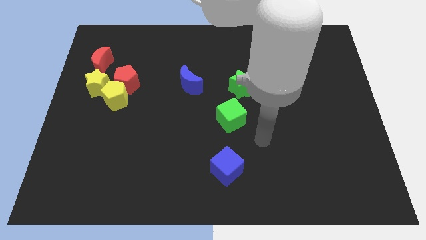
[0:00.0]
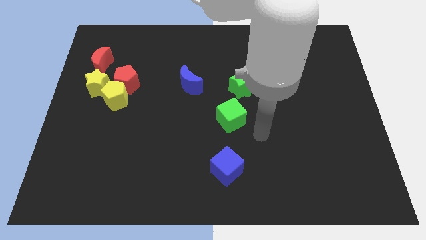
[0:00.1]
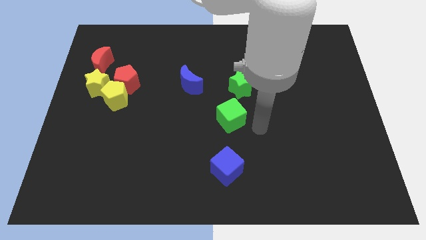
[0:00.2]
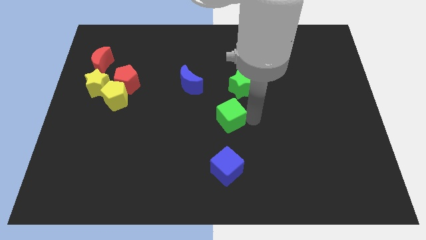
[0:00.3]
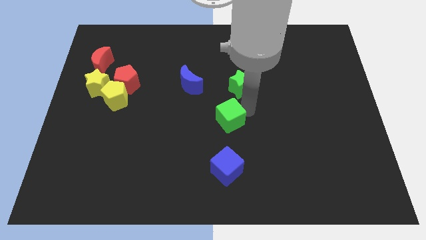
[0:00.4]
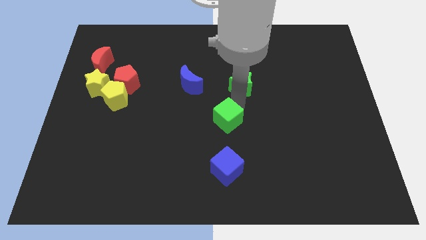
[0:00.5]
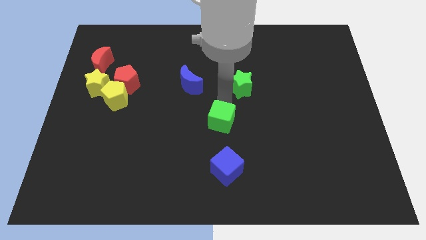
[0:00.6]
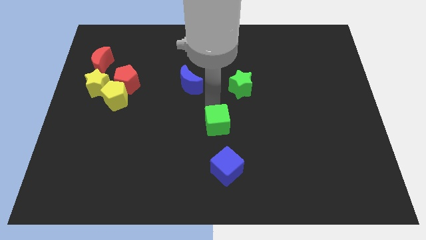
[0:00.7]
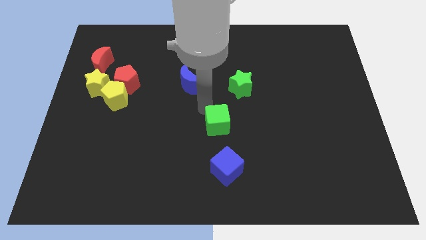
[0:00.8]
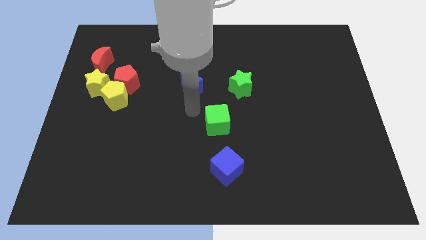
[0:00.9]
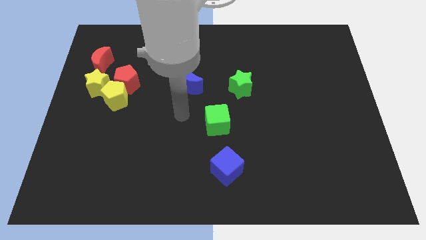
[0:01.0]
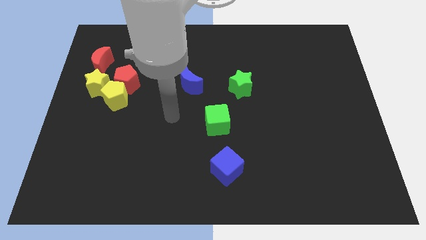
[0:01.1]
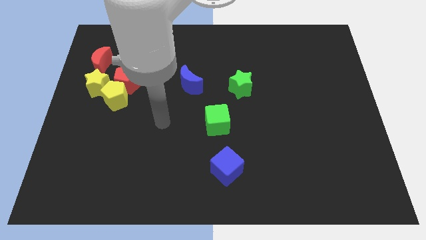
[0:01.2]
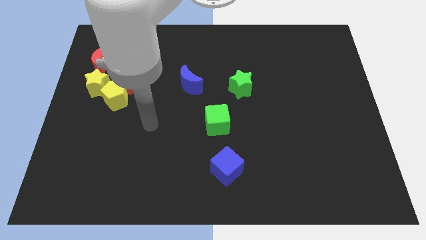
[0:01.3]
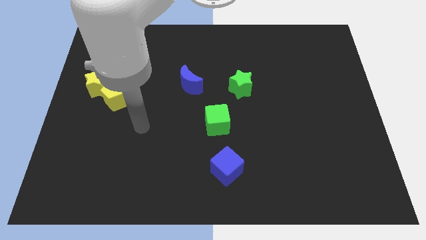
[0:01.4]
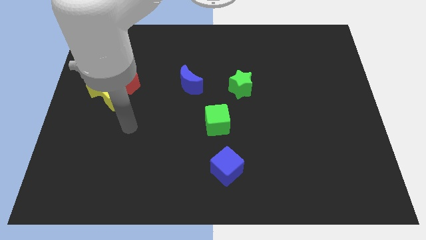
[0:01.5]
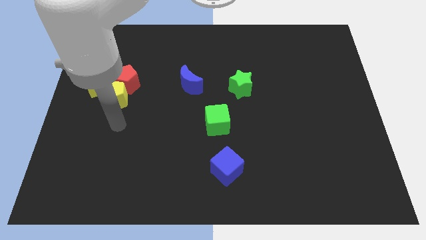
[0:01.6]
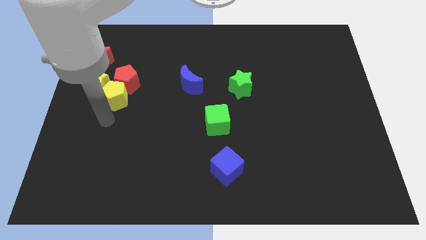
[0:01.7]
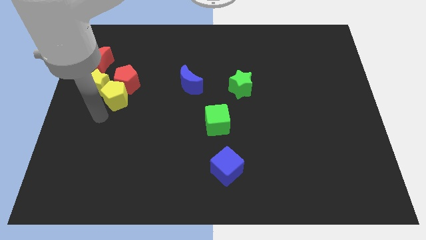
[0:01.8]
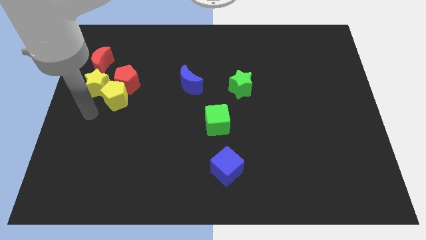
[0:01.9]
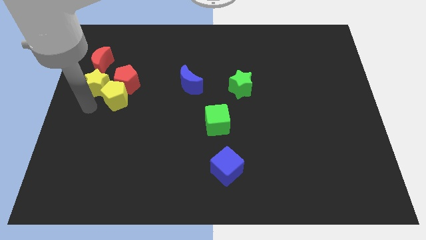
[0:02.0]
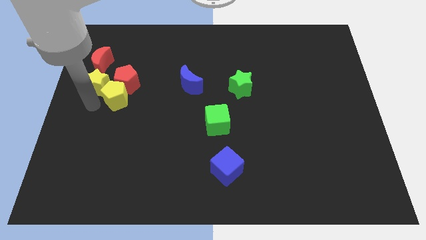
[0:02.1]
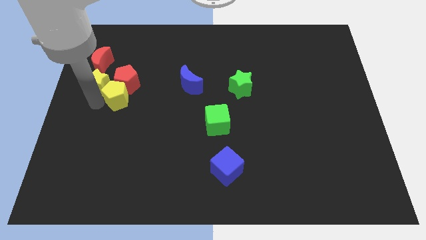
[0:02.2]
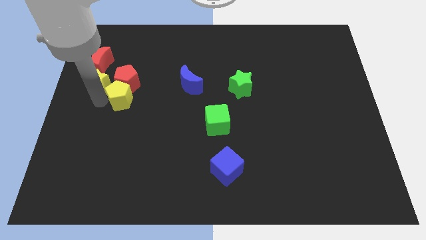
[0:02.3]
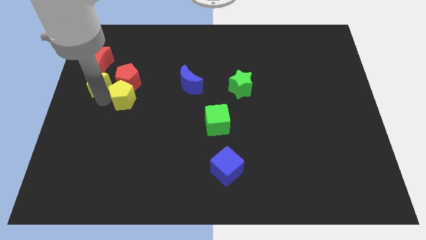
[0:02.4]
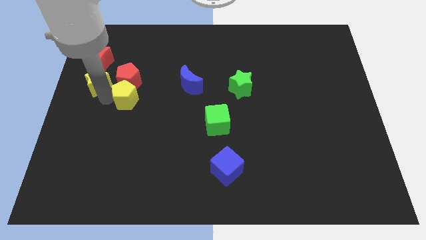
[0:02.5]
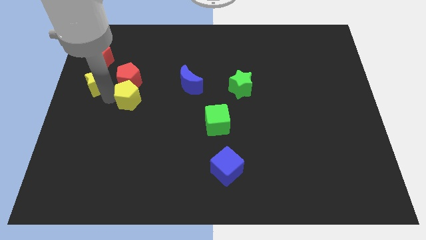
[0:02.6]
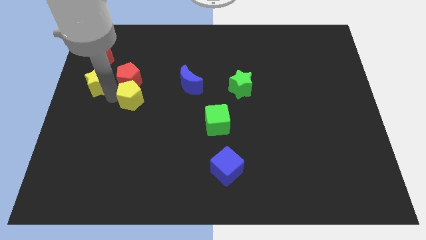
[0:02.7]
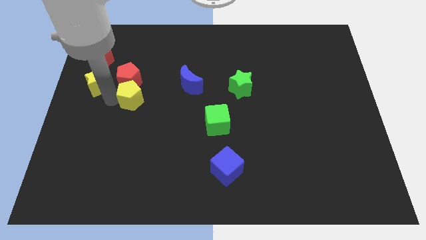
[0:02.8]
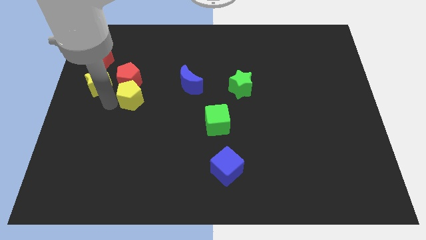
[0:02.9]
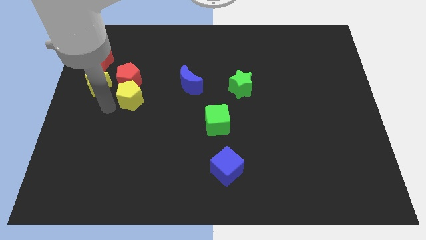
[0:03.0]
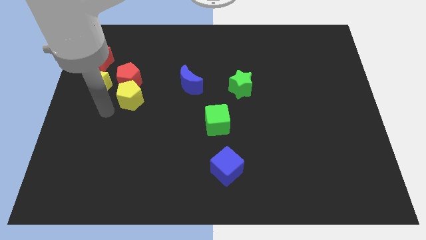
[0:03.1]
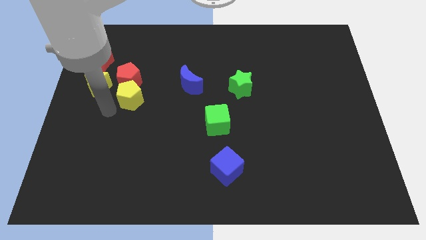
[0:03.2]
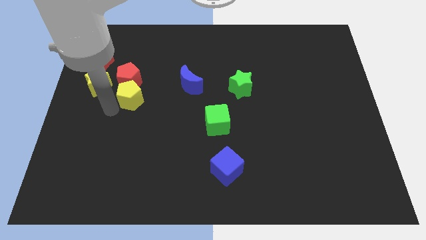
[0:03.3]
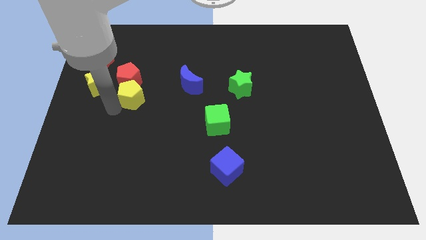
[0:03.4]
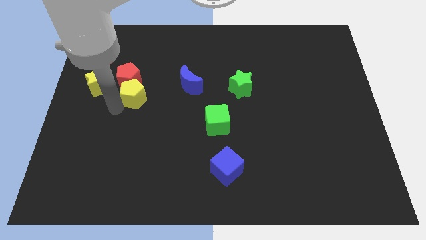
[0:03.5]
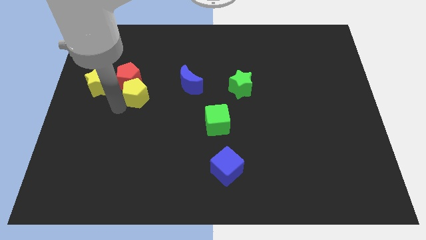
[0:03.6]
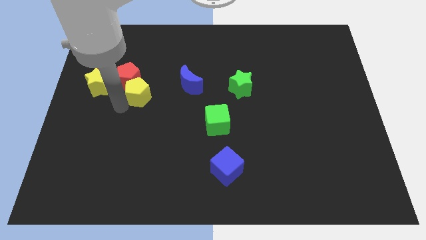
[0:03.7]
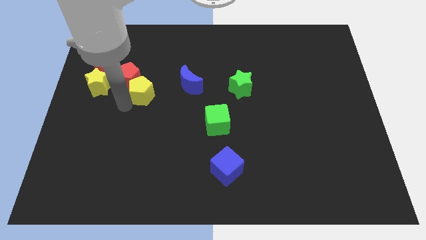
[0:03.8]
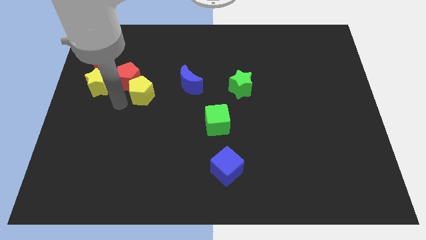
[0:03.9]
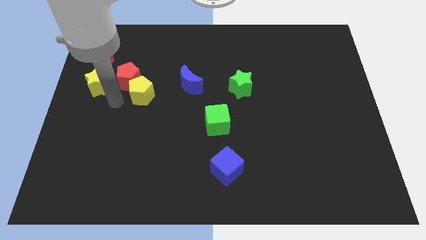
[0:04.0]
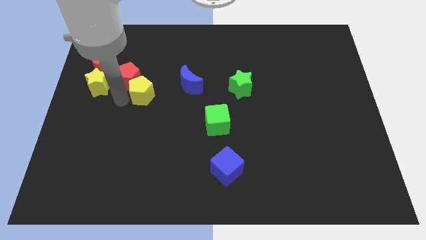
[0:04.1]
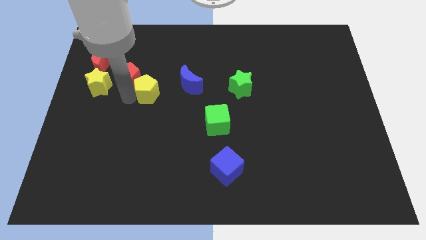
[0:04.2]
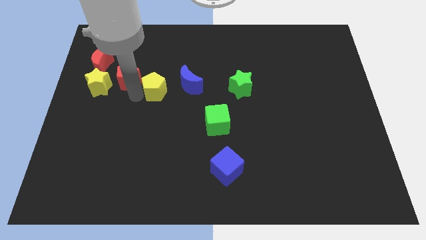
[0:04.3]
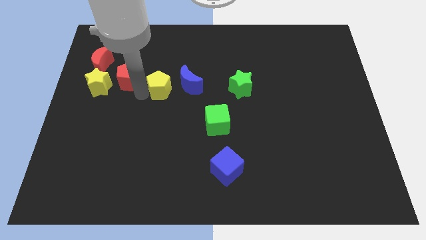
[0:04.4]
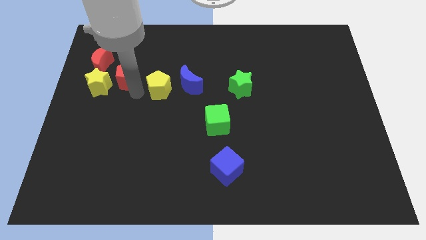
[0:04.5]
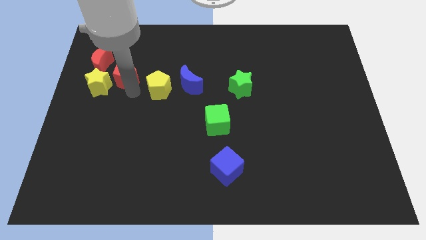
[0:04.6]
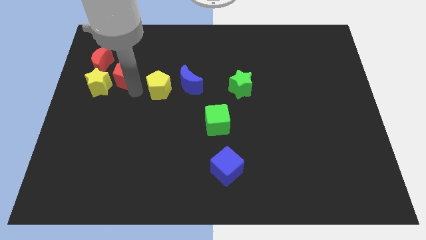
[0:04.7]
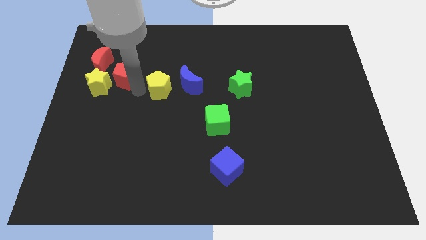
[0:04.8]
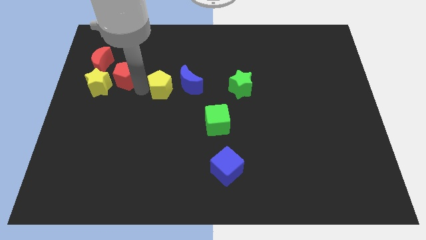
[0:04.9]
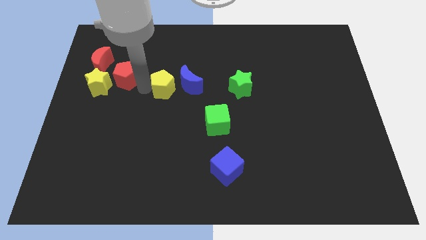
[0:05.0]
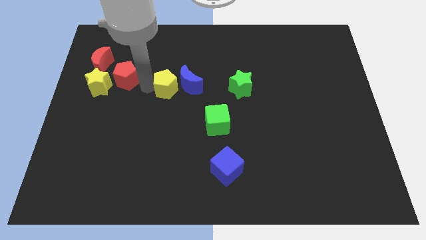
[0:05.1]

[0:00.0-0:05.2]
slide the yellow pentagon close to the blue moon

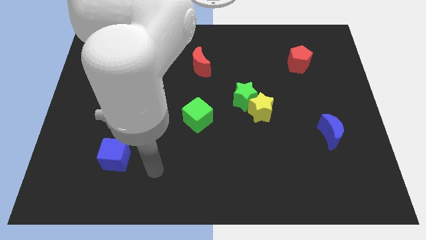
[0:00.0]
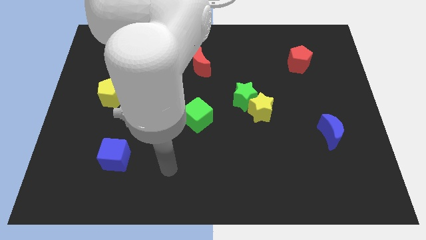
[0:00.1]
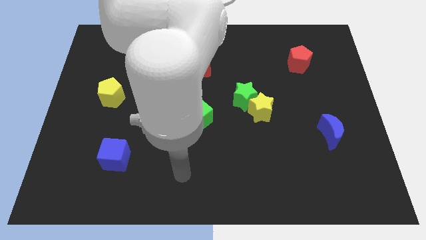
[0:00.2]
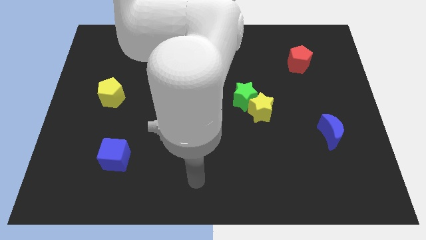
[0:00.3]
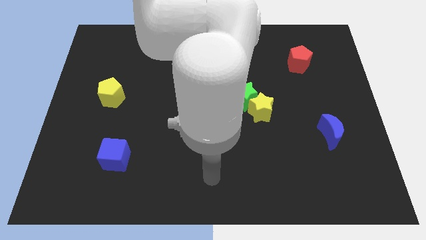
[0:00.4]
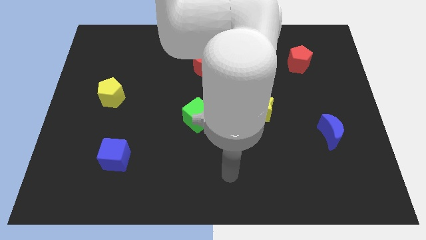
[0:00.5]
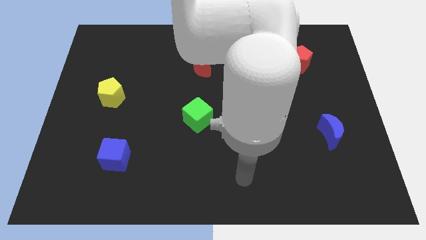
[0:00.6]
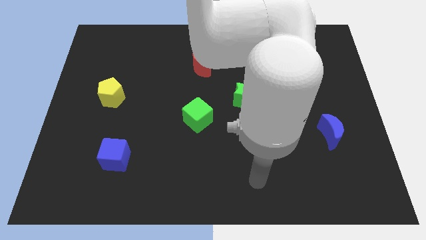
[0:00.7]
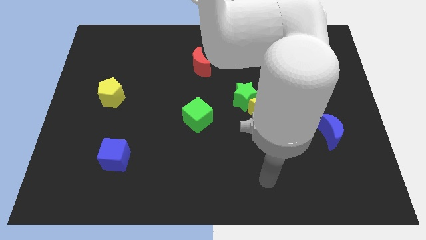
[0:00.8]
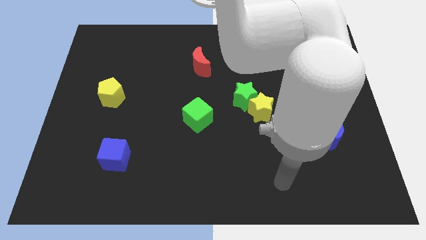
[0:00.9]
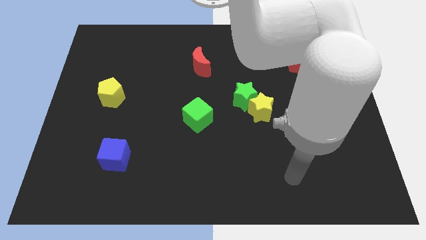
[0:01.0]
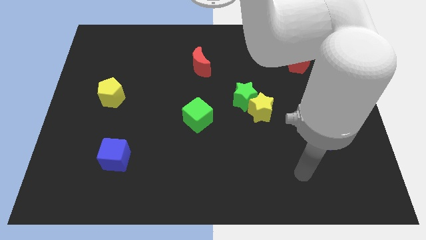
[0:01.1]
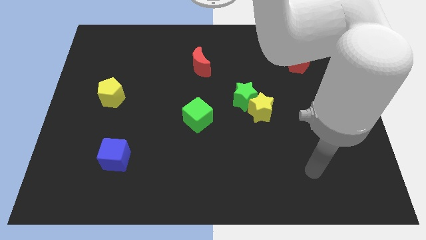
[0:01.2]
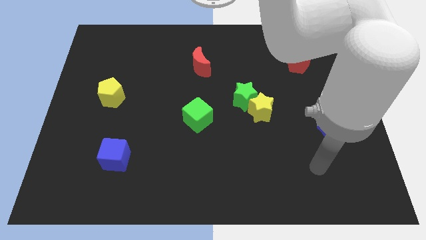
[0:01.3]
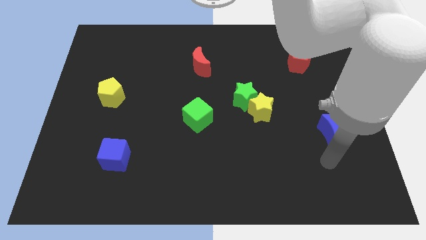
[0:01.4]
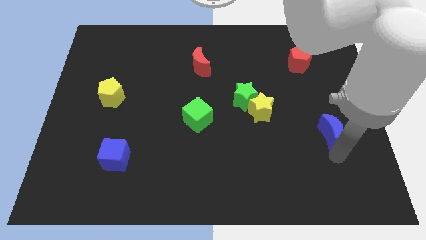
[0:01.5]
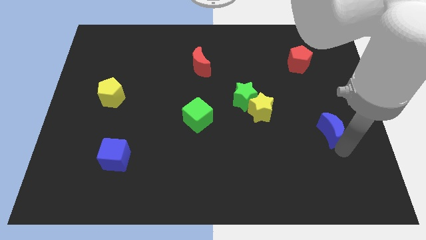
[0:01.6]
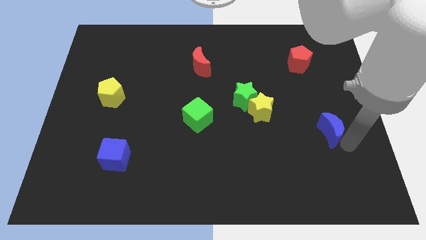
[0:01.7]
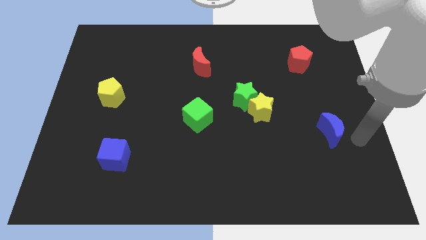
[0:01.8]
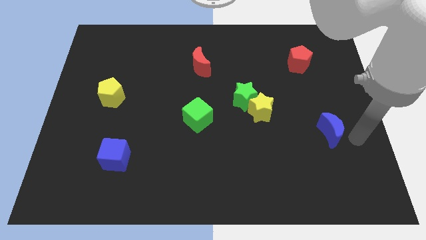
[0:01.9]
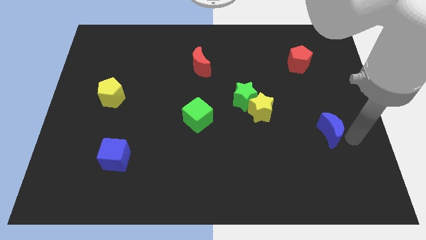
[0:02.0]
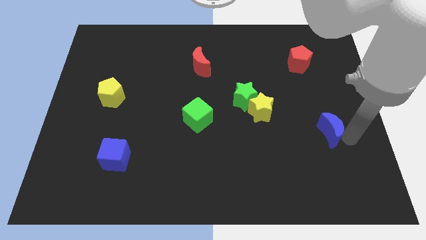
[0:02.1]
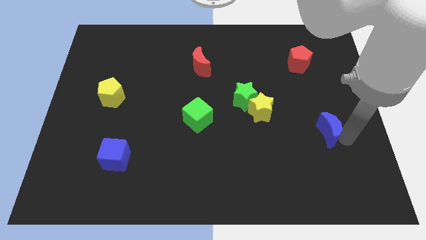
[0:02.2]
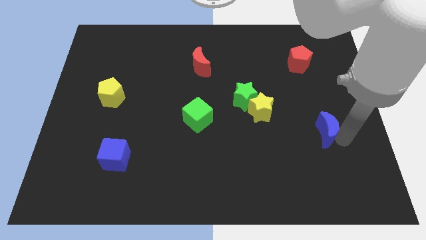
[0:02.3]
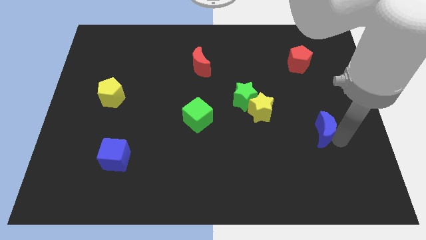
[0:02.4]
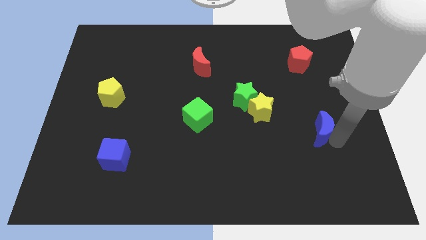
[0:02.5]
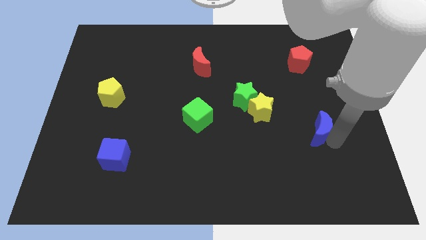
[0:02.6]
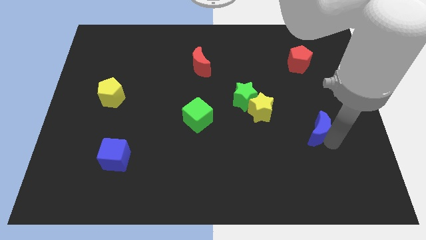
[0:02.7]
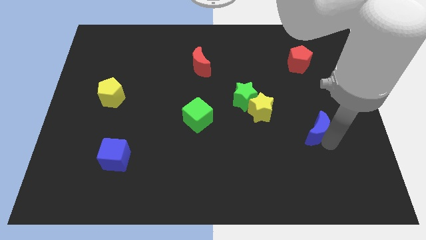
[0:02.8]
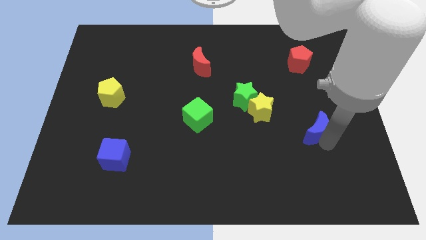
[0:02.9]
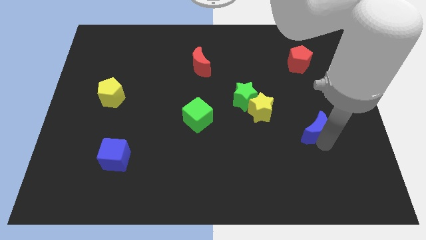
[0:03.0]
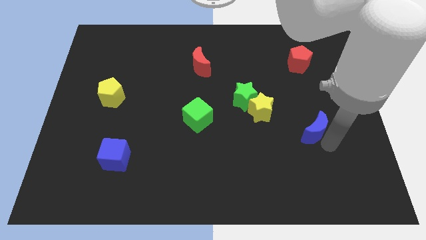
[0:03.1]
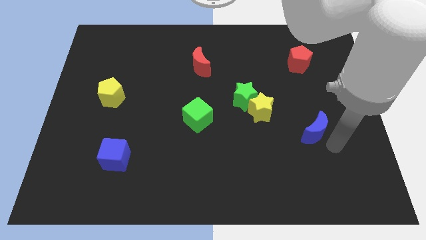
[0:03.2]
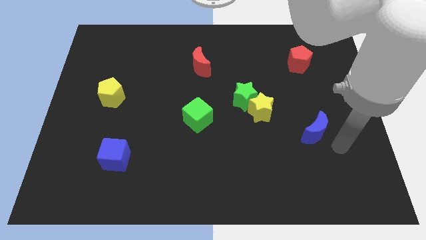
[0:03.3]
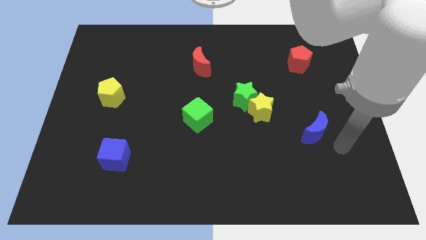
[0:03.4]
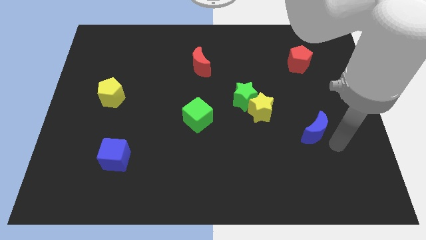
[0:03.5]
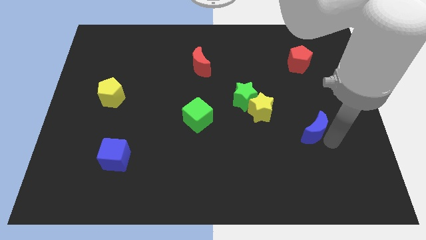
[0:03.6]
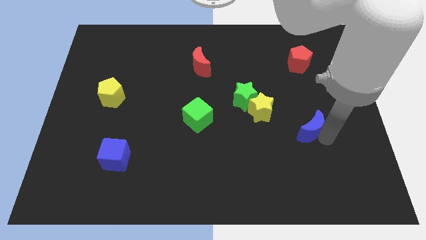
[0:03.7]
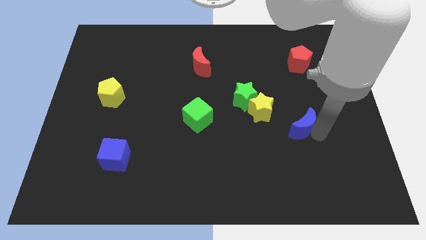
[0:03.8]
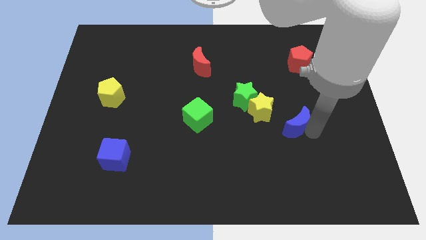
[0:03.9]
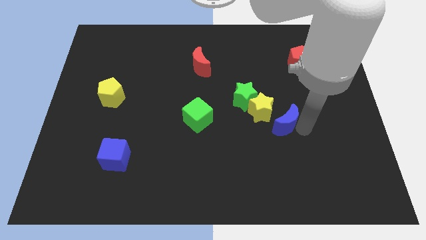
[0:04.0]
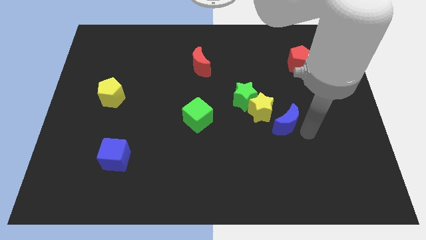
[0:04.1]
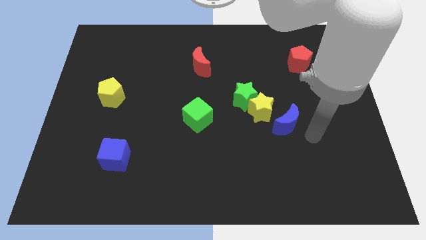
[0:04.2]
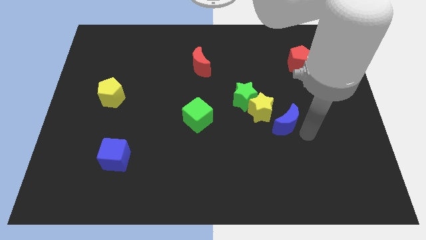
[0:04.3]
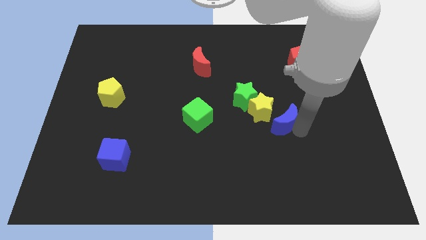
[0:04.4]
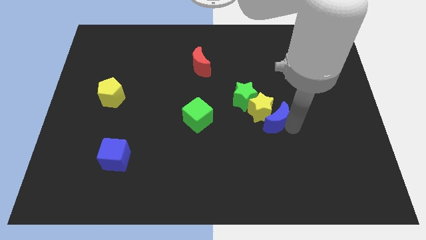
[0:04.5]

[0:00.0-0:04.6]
push the blue moon next to the yellow star
